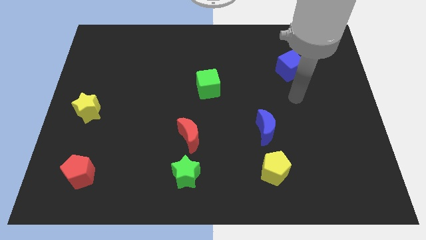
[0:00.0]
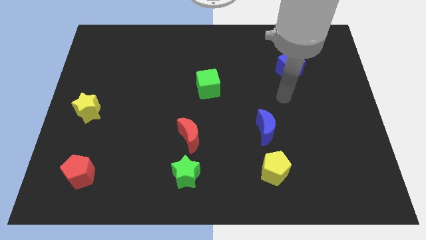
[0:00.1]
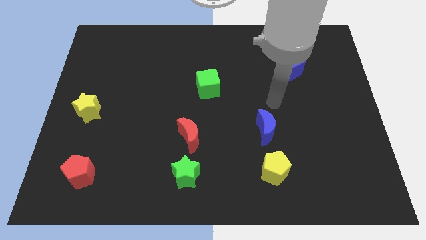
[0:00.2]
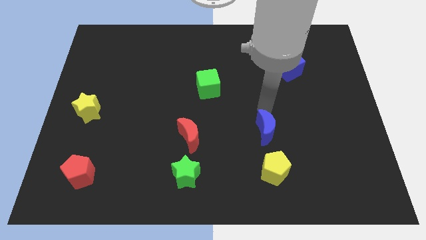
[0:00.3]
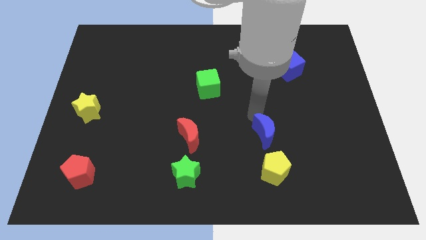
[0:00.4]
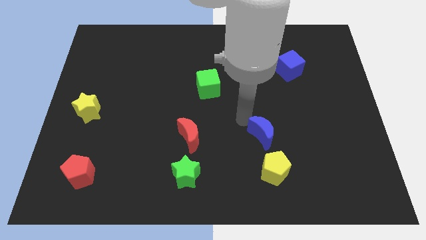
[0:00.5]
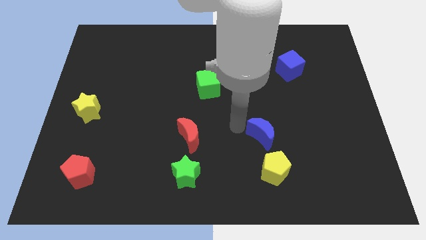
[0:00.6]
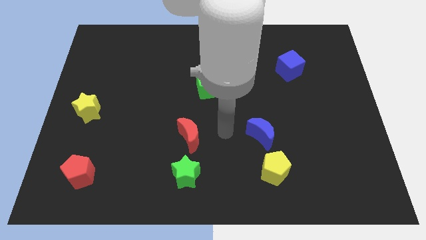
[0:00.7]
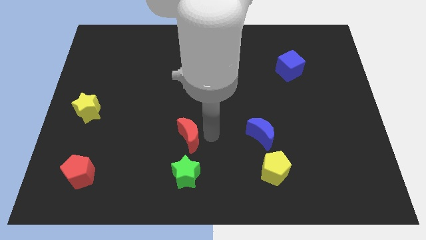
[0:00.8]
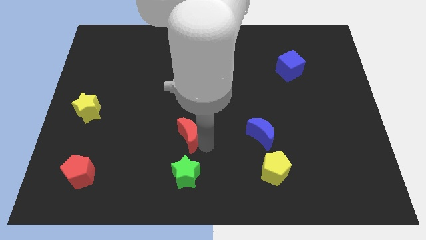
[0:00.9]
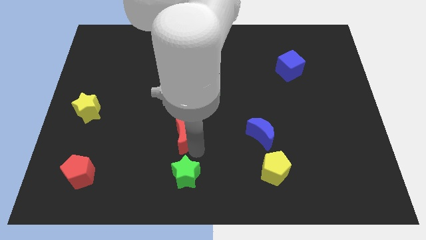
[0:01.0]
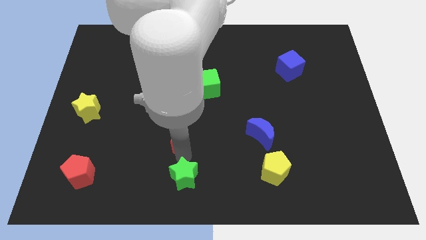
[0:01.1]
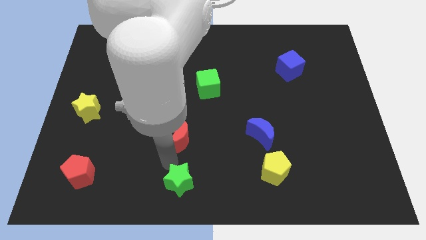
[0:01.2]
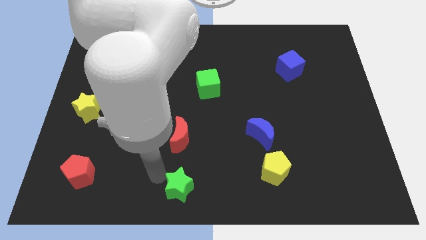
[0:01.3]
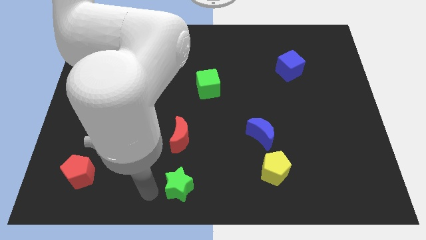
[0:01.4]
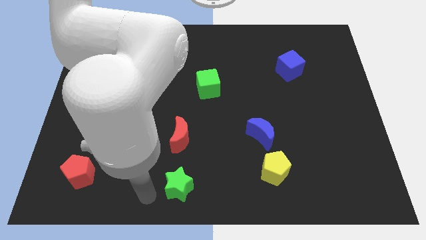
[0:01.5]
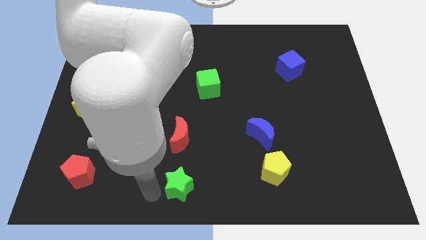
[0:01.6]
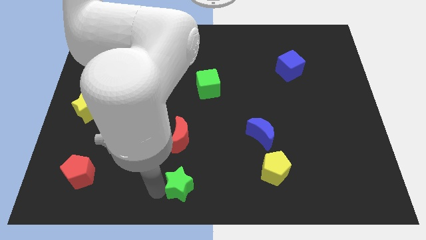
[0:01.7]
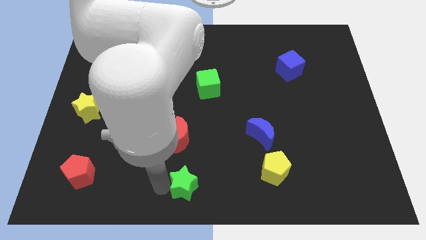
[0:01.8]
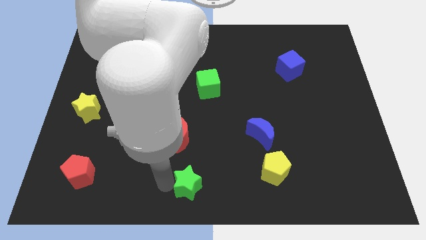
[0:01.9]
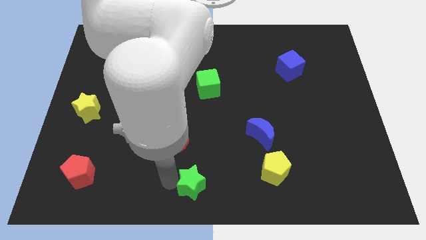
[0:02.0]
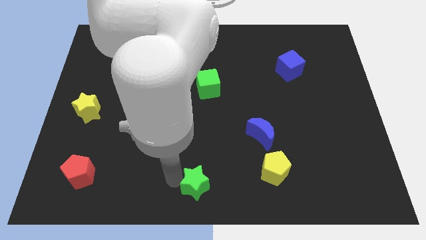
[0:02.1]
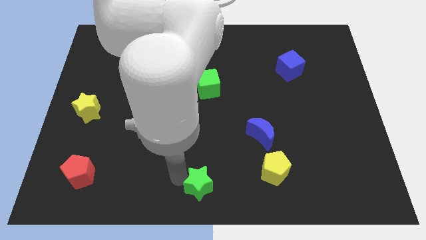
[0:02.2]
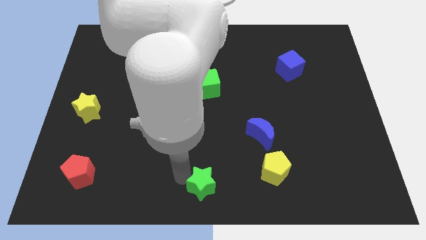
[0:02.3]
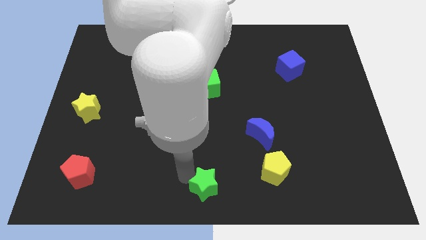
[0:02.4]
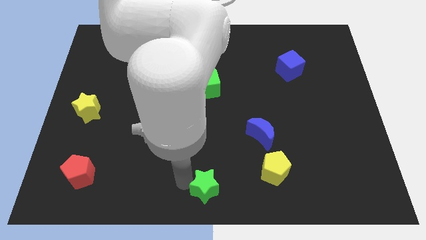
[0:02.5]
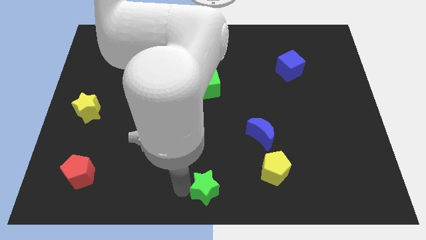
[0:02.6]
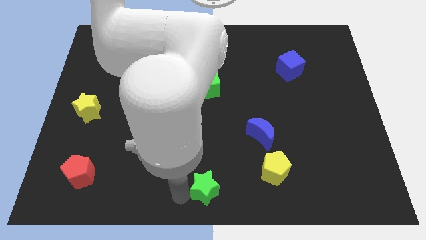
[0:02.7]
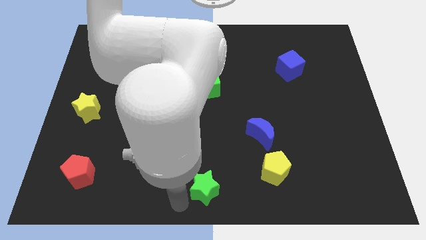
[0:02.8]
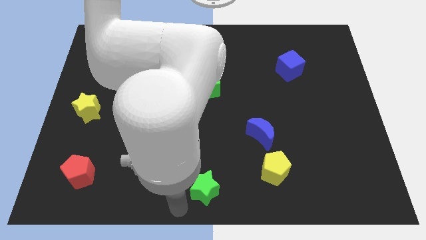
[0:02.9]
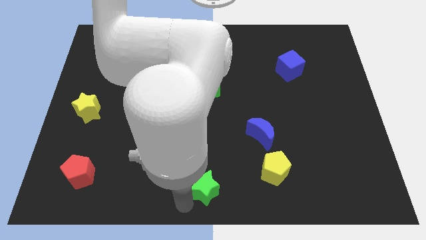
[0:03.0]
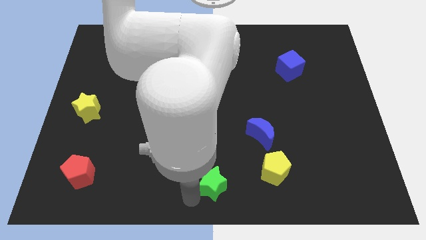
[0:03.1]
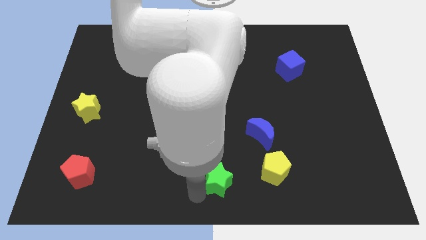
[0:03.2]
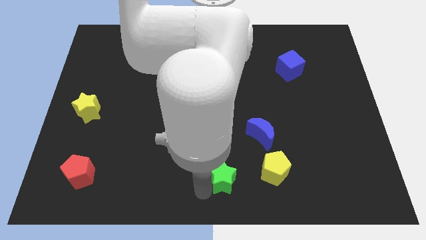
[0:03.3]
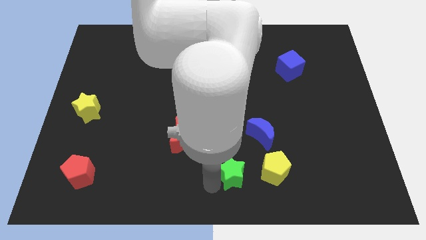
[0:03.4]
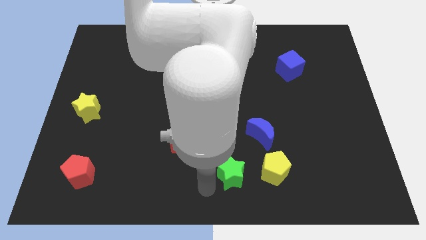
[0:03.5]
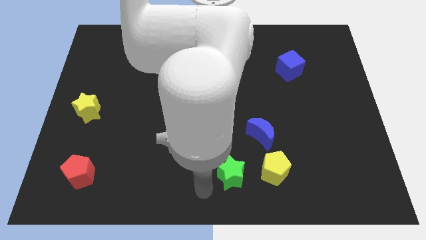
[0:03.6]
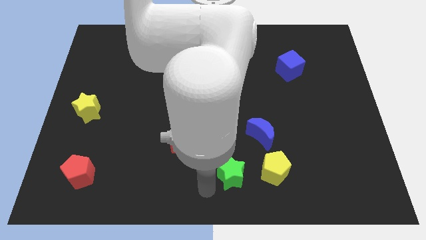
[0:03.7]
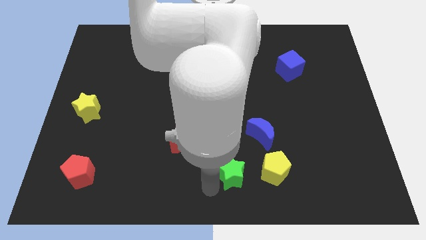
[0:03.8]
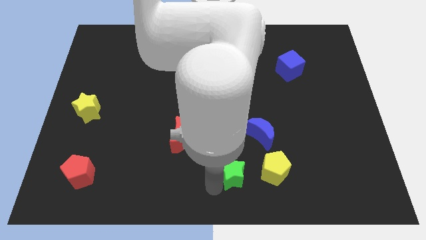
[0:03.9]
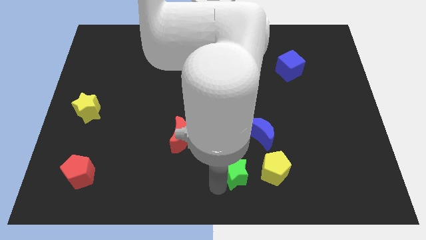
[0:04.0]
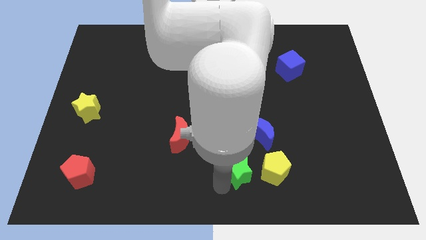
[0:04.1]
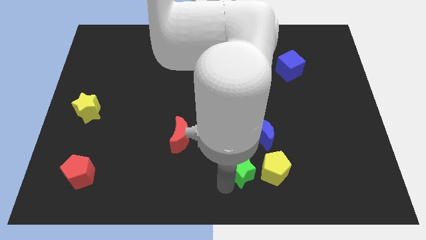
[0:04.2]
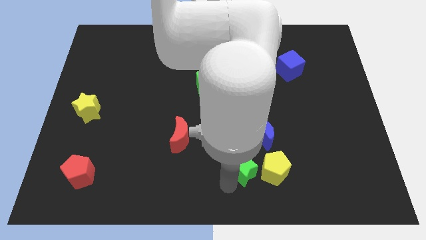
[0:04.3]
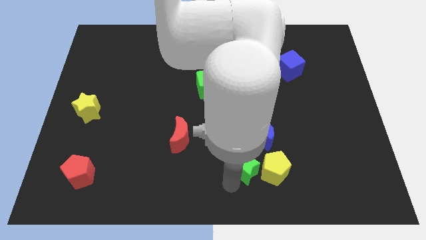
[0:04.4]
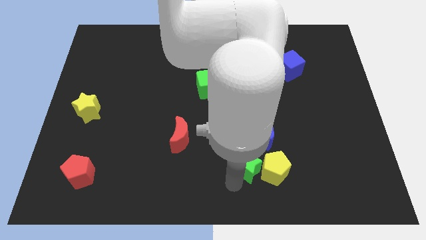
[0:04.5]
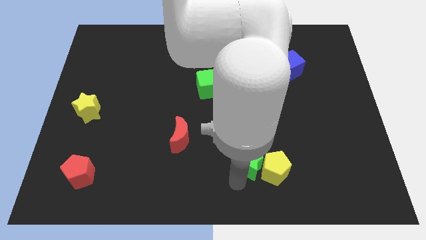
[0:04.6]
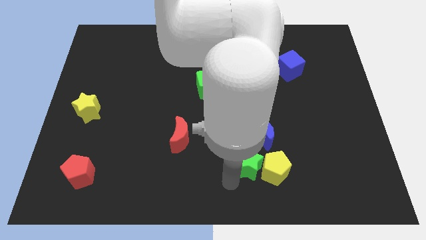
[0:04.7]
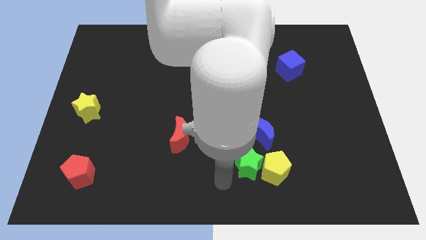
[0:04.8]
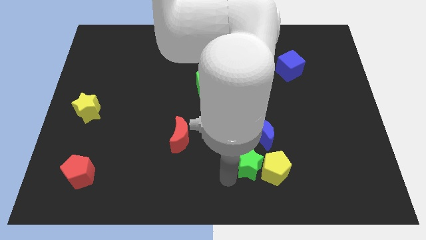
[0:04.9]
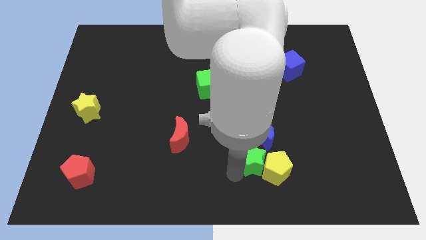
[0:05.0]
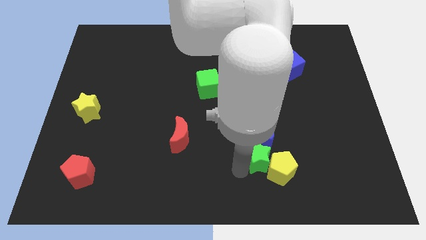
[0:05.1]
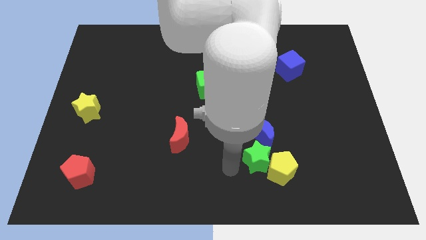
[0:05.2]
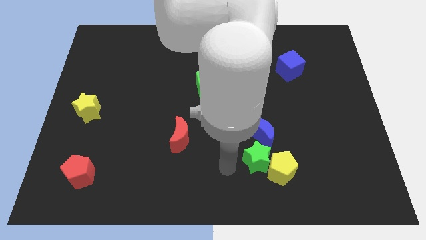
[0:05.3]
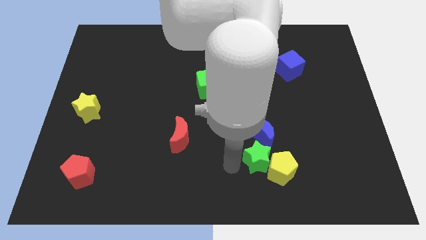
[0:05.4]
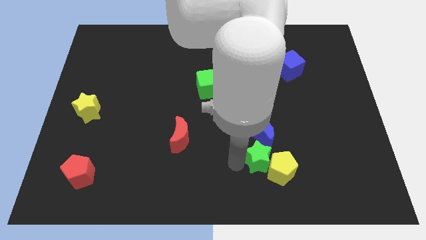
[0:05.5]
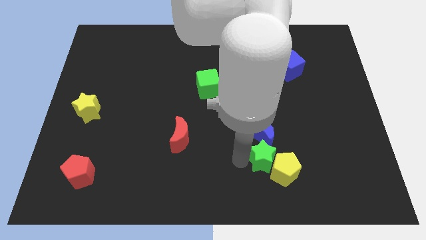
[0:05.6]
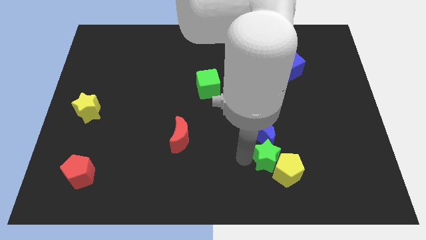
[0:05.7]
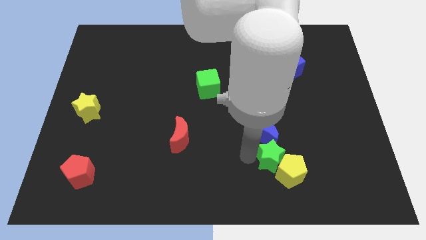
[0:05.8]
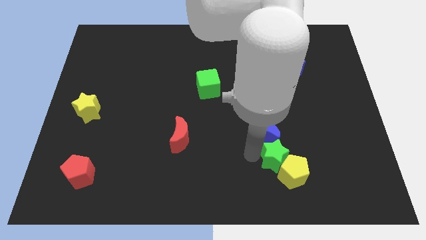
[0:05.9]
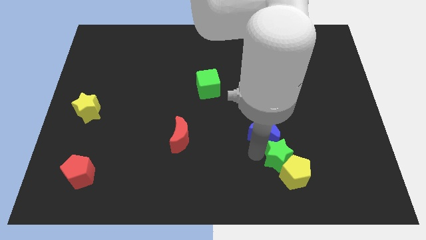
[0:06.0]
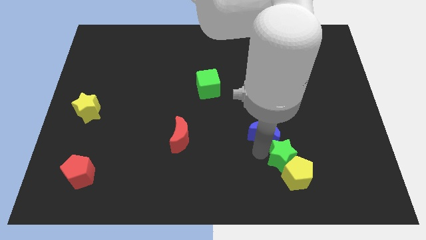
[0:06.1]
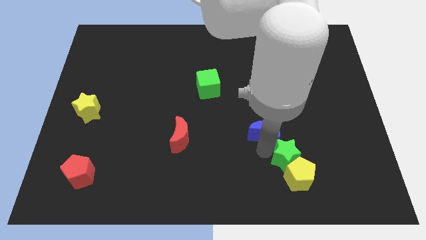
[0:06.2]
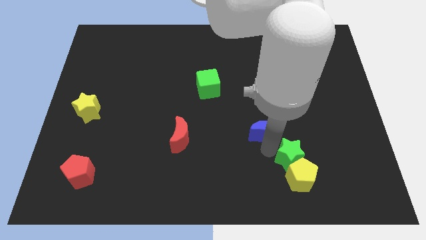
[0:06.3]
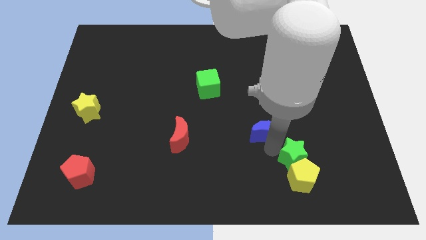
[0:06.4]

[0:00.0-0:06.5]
move the green star to the top right side of the yellow pentagon

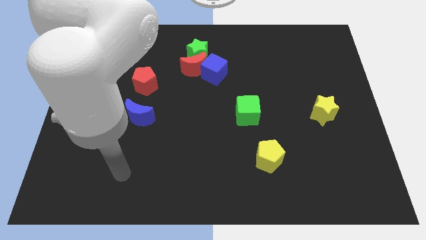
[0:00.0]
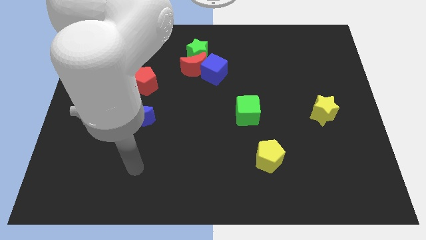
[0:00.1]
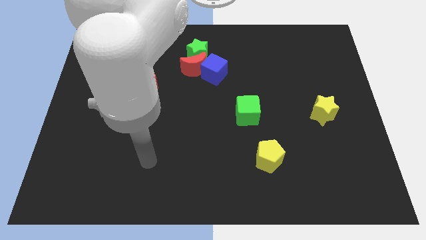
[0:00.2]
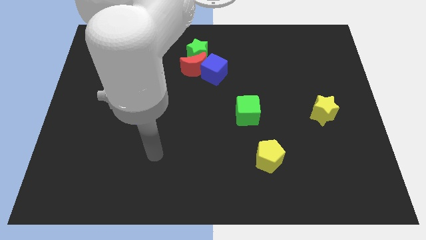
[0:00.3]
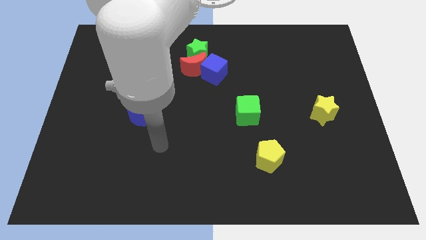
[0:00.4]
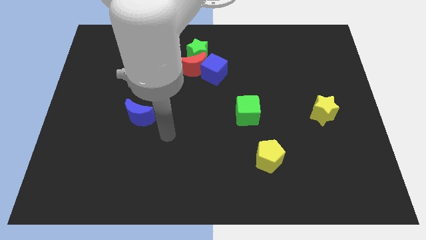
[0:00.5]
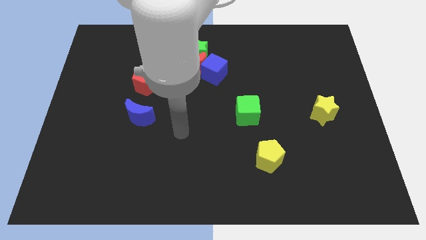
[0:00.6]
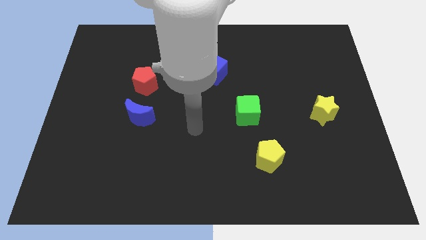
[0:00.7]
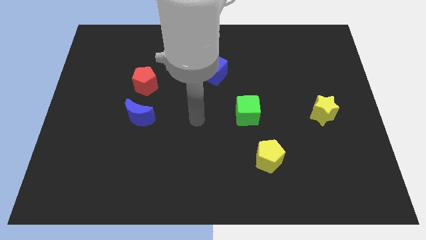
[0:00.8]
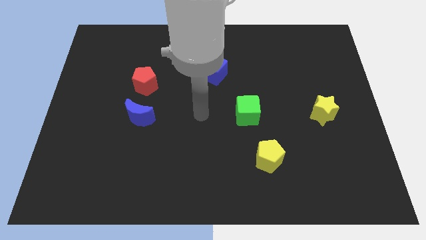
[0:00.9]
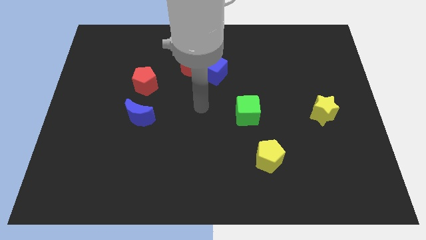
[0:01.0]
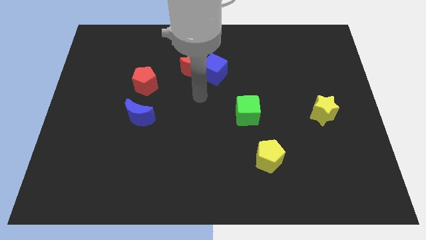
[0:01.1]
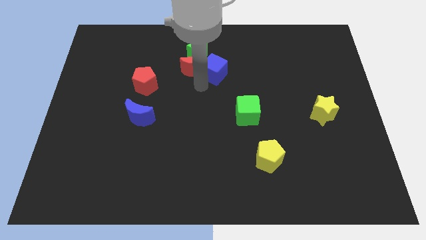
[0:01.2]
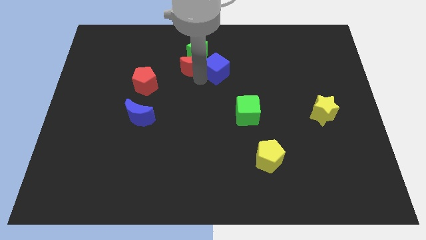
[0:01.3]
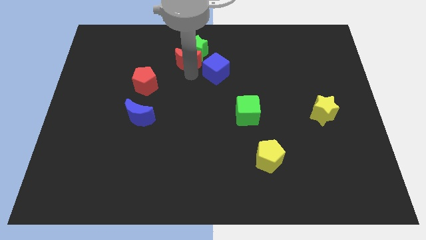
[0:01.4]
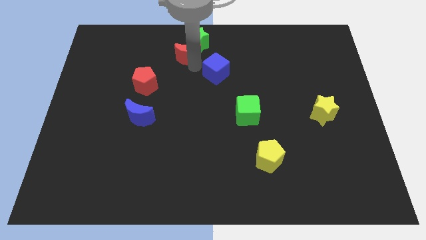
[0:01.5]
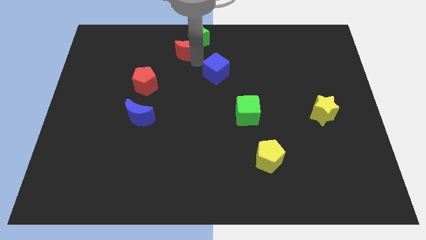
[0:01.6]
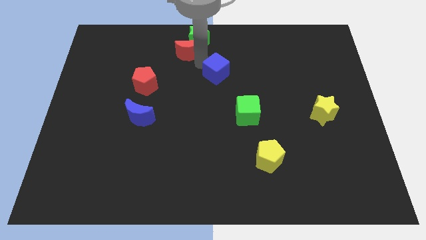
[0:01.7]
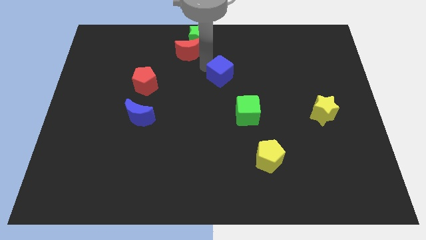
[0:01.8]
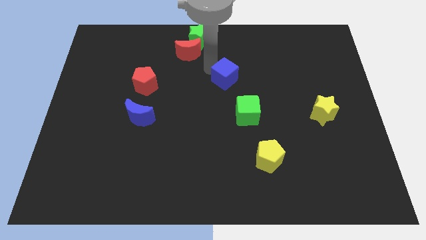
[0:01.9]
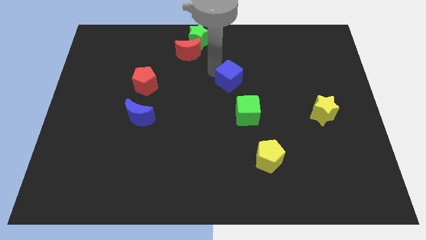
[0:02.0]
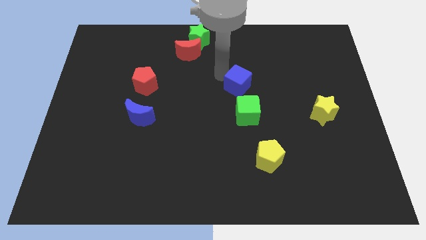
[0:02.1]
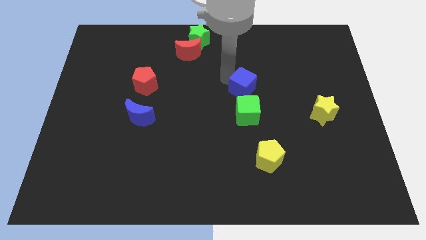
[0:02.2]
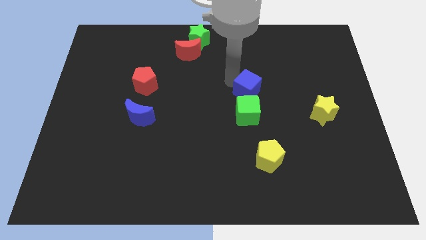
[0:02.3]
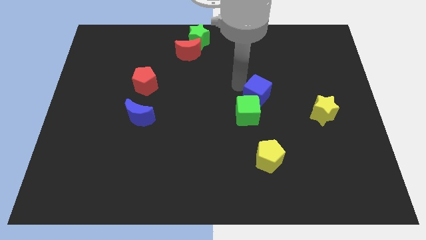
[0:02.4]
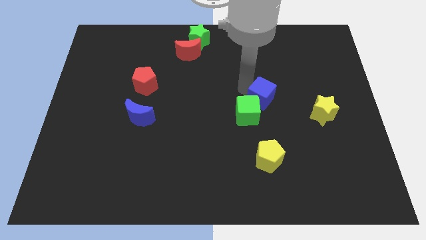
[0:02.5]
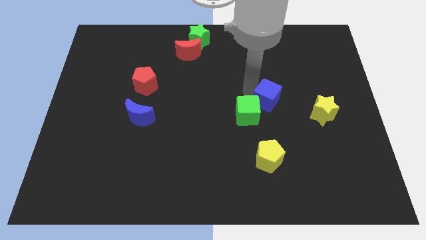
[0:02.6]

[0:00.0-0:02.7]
slide the blue cube just right of the green cube
